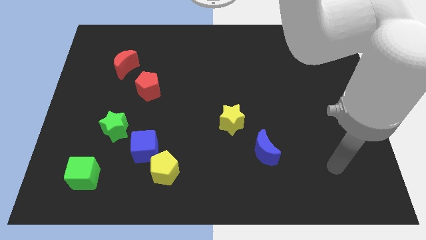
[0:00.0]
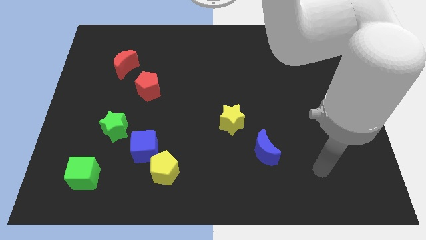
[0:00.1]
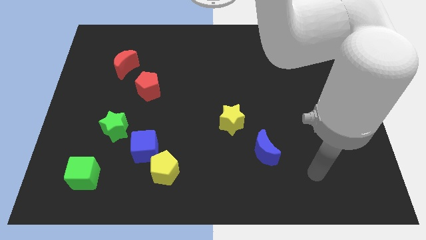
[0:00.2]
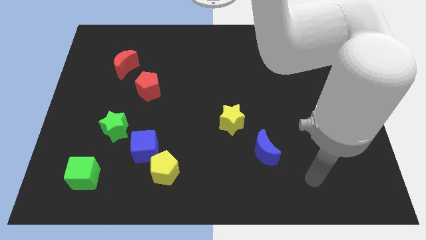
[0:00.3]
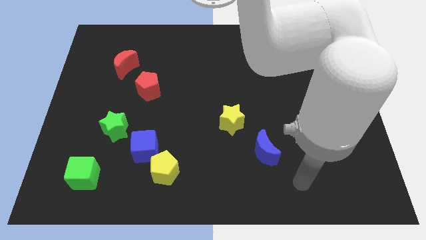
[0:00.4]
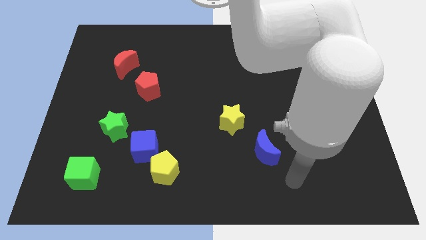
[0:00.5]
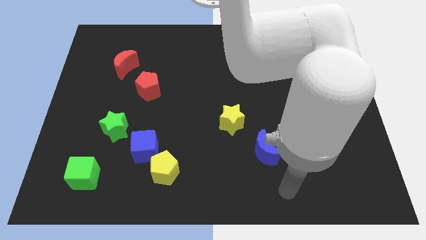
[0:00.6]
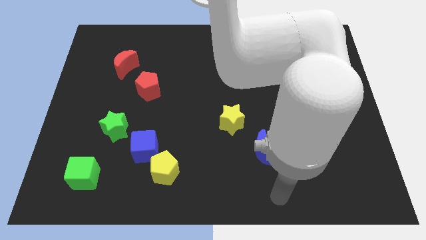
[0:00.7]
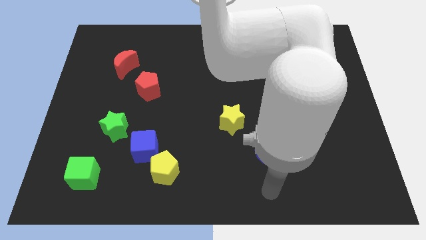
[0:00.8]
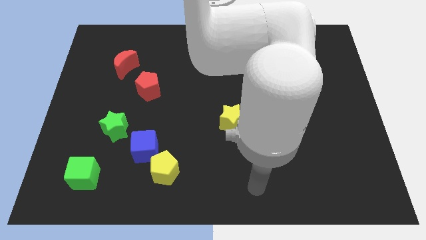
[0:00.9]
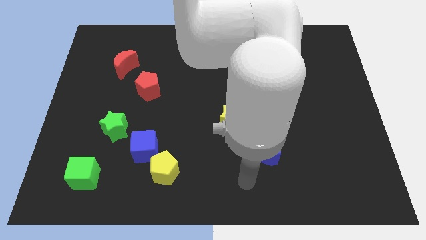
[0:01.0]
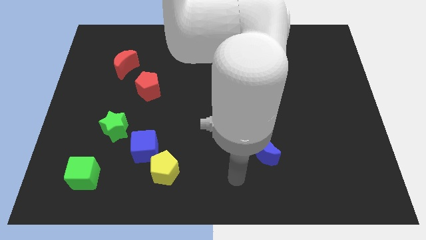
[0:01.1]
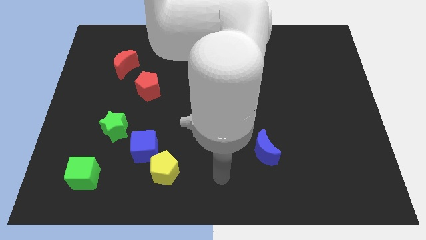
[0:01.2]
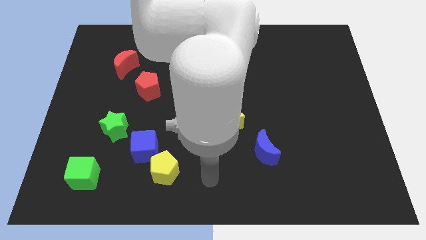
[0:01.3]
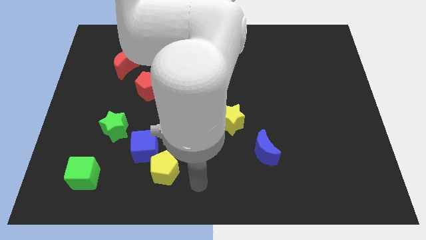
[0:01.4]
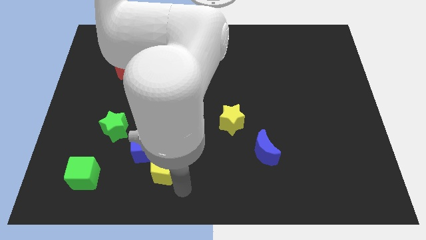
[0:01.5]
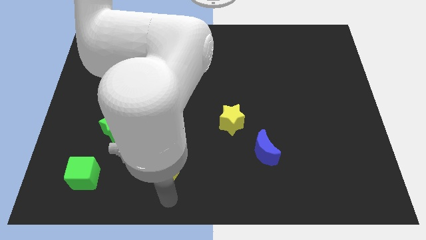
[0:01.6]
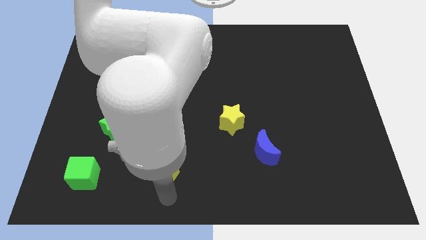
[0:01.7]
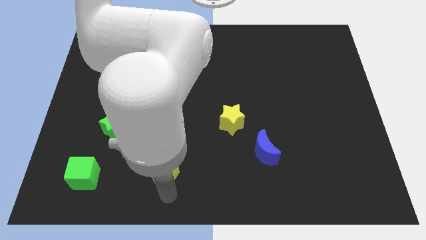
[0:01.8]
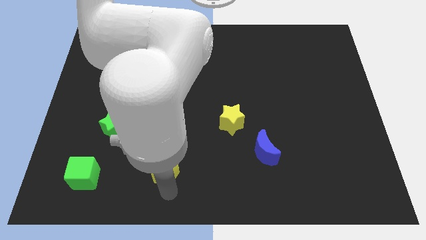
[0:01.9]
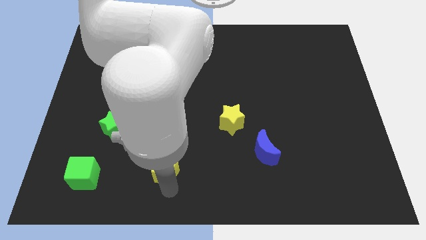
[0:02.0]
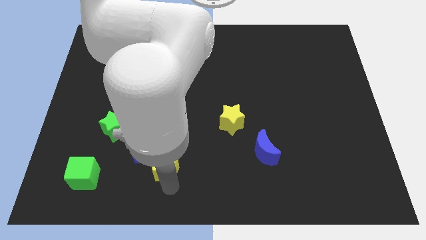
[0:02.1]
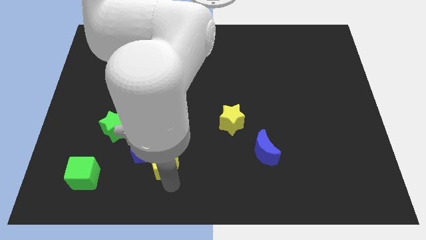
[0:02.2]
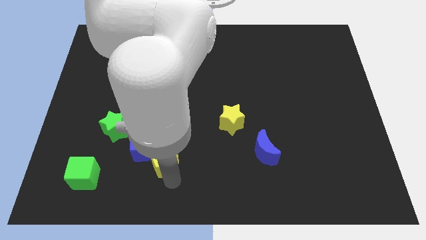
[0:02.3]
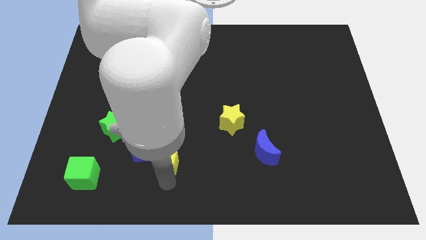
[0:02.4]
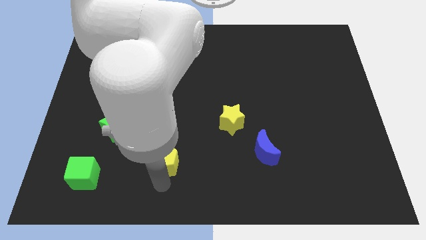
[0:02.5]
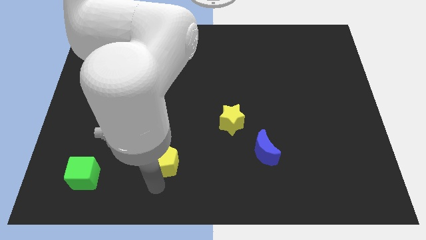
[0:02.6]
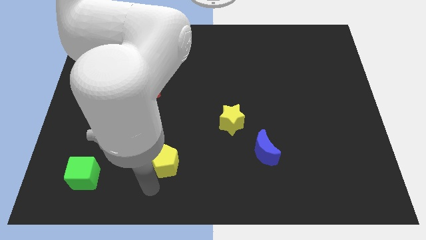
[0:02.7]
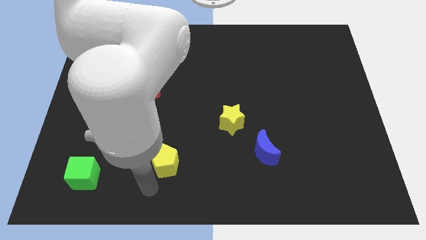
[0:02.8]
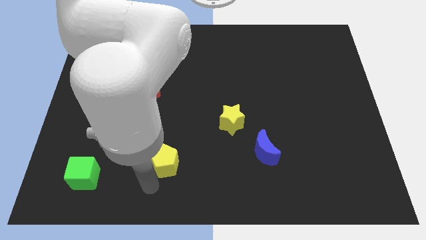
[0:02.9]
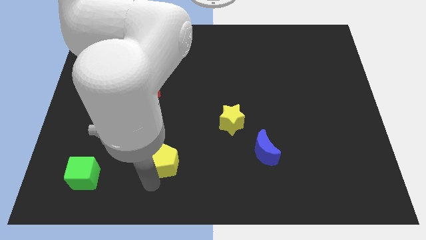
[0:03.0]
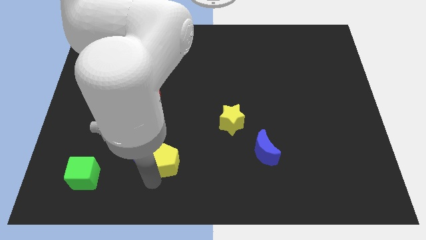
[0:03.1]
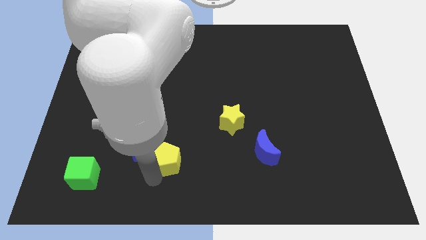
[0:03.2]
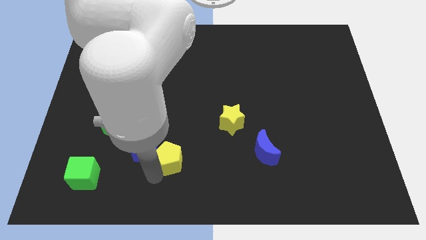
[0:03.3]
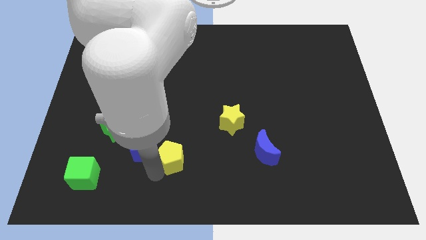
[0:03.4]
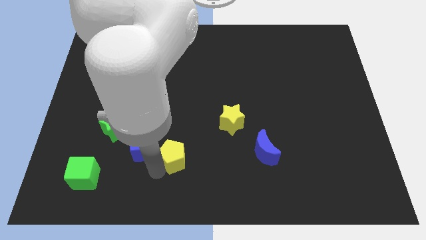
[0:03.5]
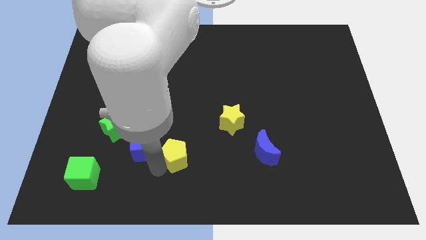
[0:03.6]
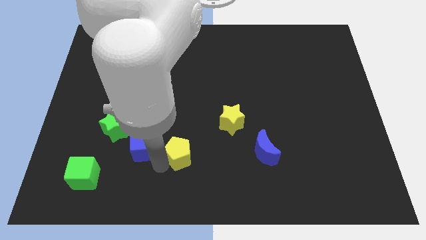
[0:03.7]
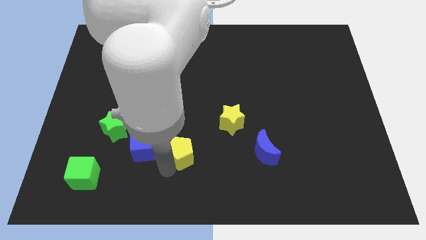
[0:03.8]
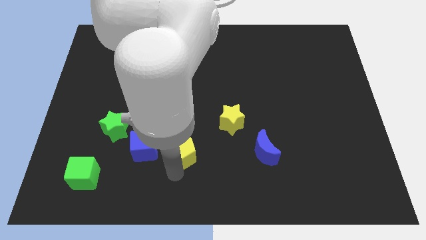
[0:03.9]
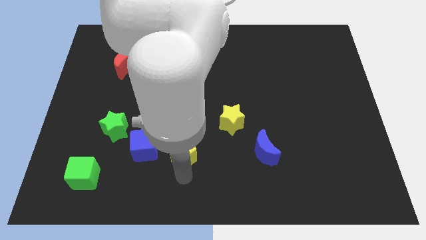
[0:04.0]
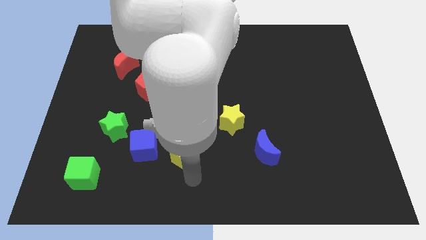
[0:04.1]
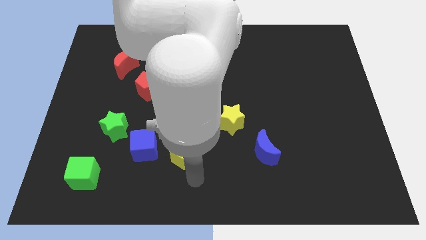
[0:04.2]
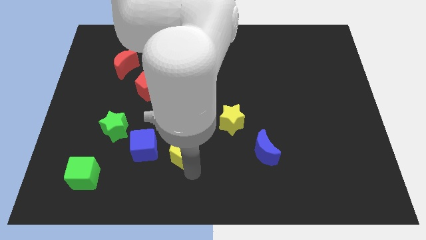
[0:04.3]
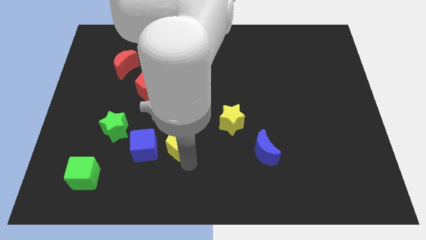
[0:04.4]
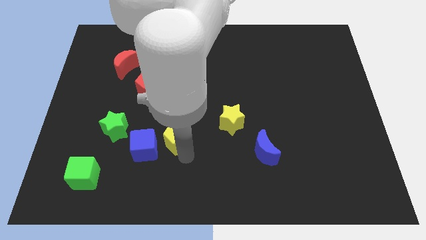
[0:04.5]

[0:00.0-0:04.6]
push the yellow pentagon upwards somewhat

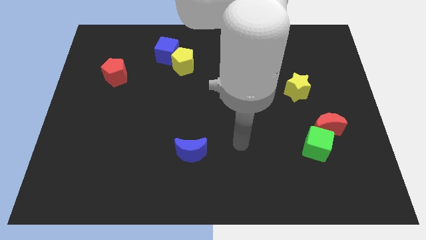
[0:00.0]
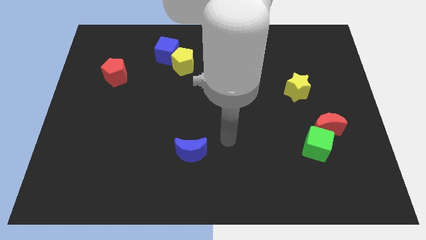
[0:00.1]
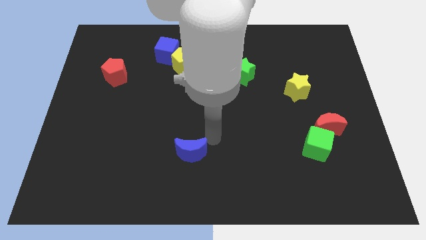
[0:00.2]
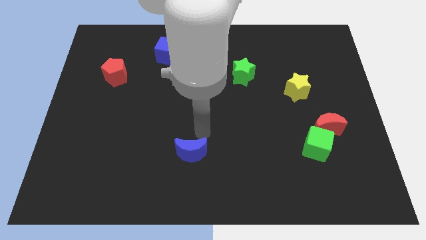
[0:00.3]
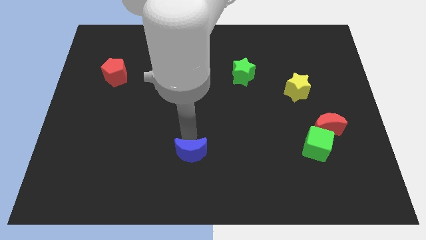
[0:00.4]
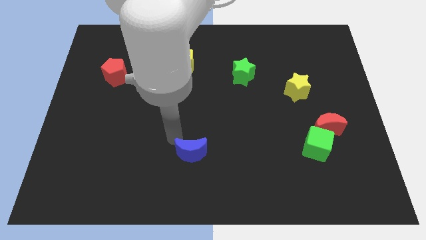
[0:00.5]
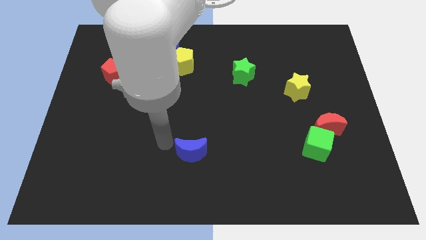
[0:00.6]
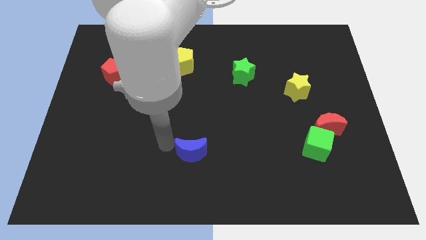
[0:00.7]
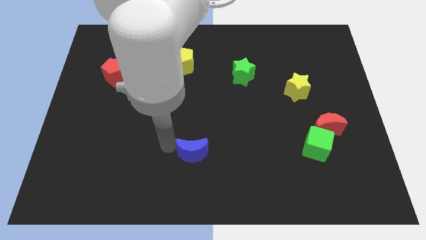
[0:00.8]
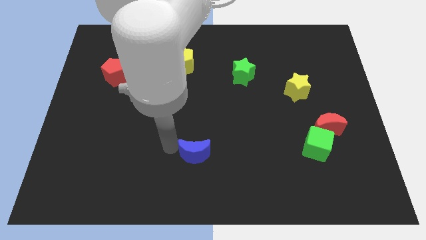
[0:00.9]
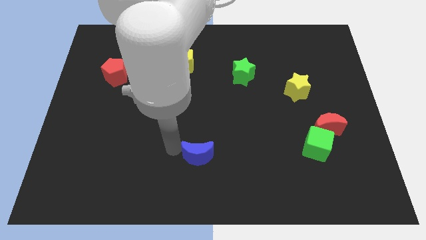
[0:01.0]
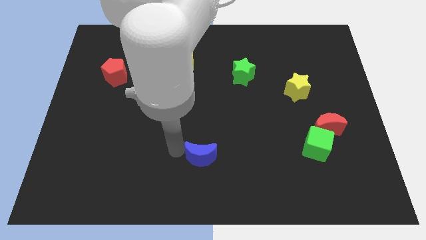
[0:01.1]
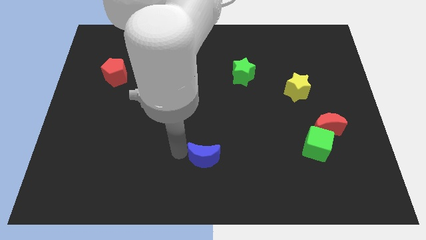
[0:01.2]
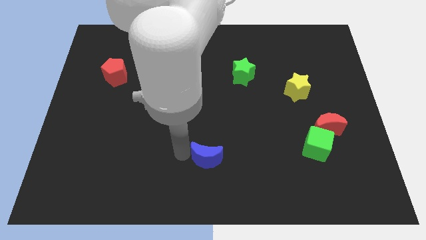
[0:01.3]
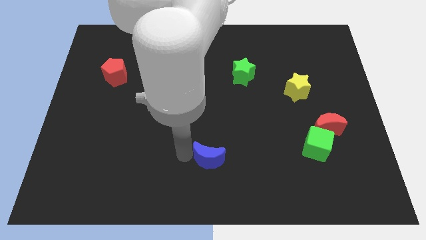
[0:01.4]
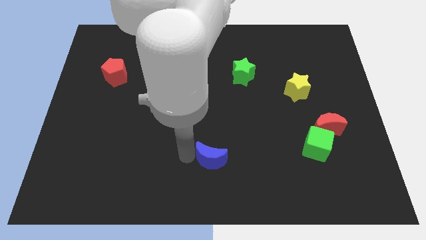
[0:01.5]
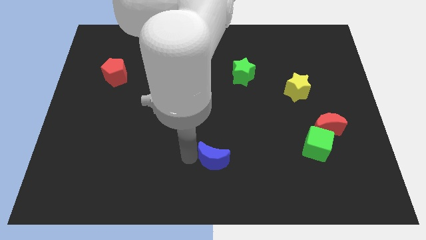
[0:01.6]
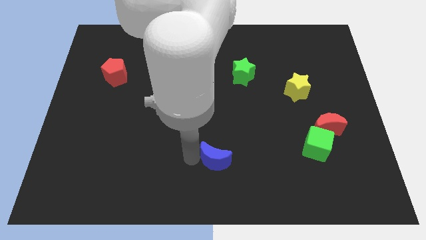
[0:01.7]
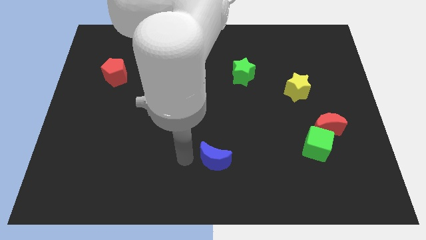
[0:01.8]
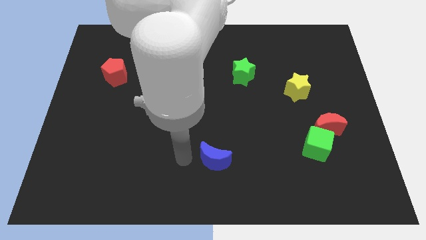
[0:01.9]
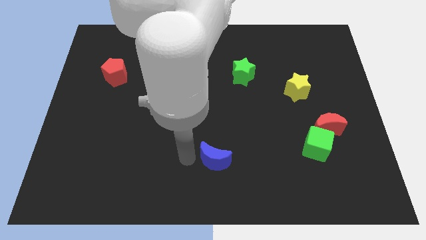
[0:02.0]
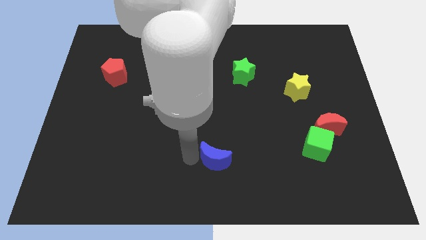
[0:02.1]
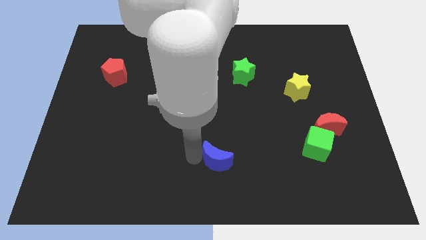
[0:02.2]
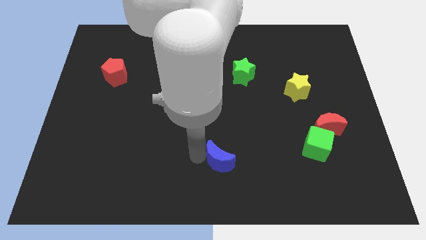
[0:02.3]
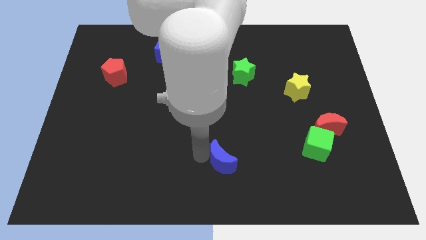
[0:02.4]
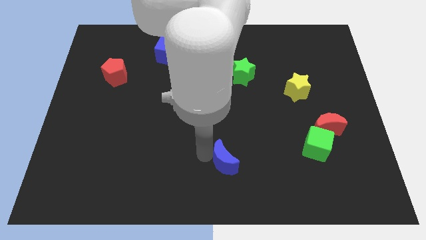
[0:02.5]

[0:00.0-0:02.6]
slide the blue moon somewhat to the right

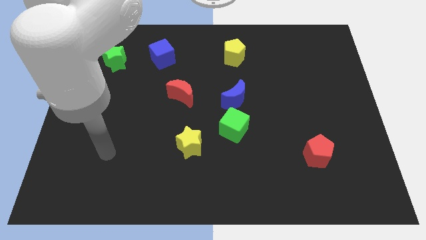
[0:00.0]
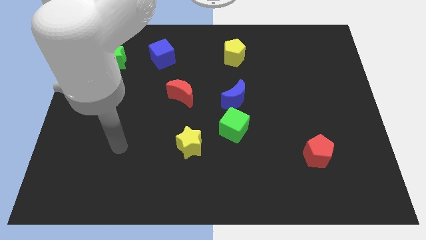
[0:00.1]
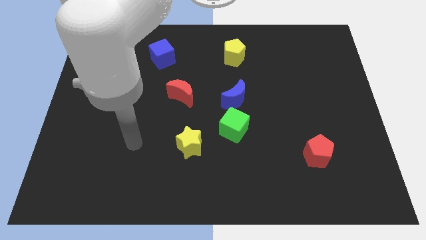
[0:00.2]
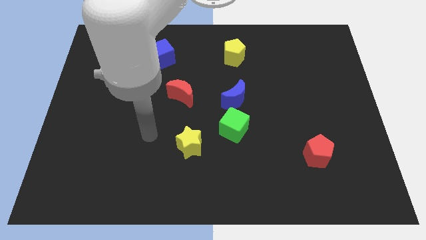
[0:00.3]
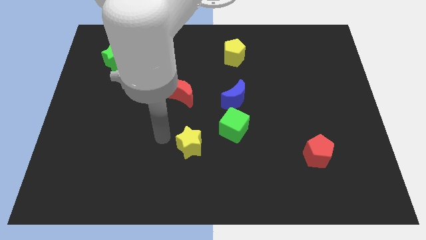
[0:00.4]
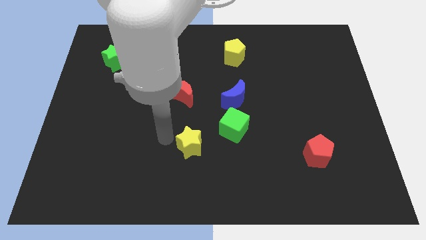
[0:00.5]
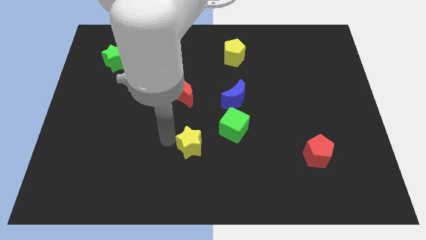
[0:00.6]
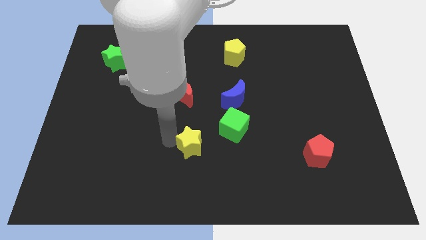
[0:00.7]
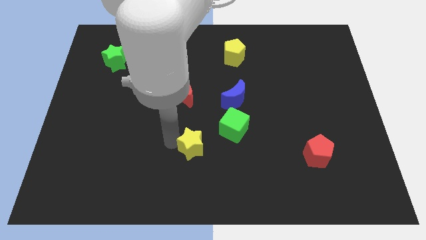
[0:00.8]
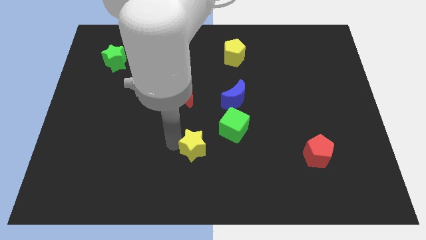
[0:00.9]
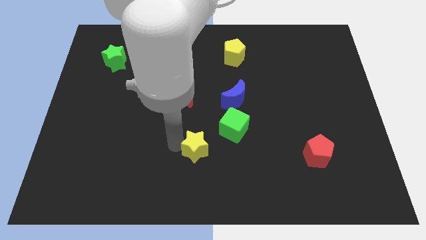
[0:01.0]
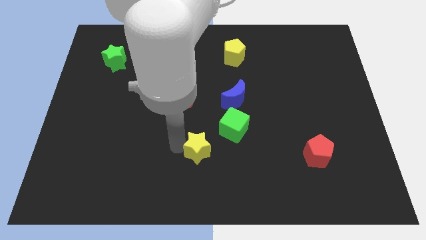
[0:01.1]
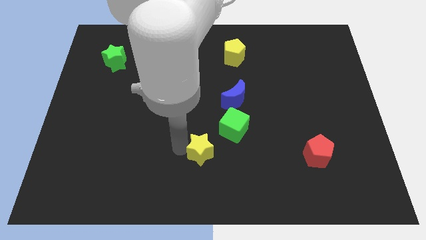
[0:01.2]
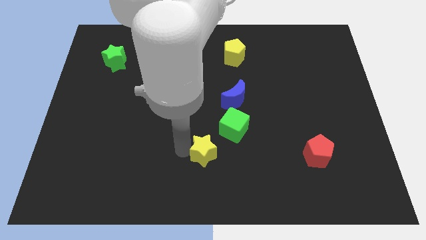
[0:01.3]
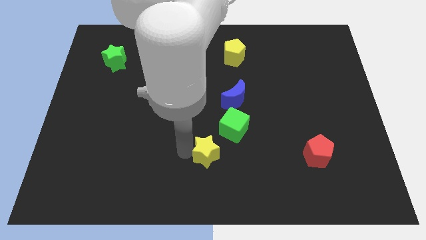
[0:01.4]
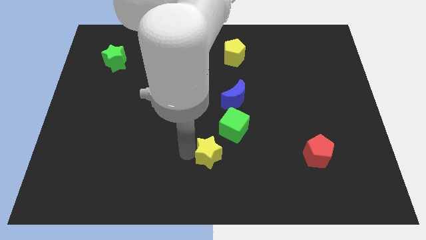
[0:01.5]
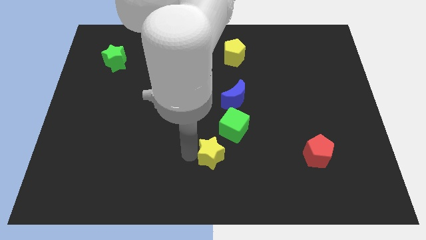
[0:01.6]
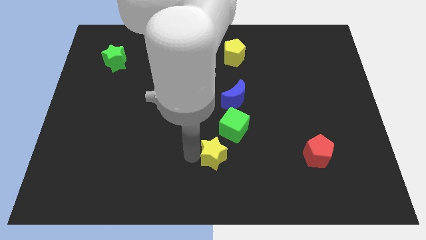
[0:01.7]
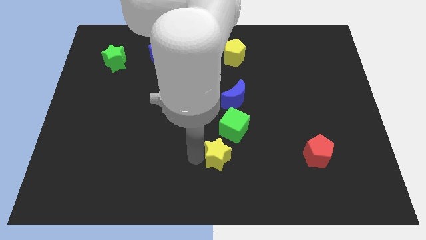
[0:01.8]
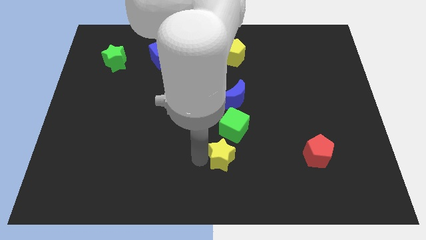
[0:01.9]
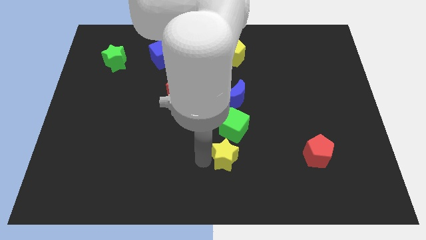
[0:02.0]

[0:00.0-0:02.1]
push the yellow star to the right somewhat
